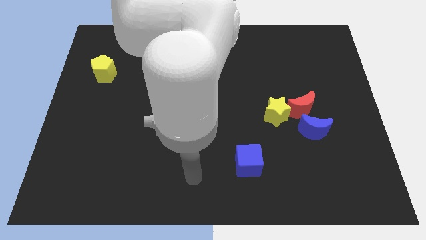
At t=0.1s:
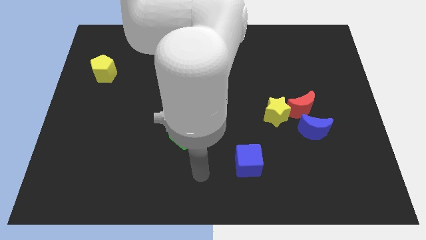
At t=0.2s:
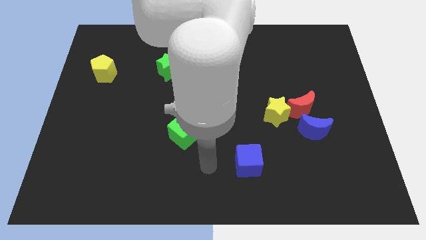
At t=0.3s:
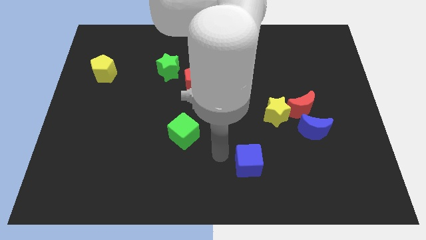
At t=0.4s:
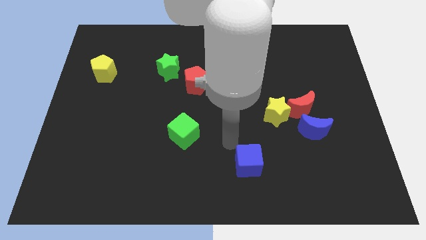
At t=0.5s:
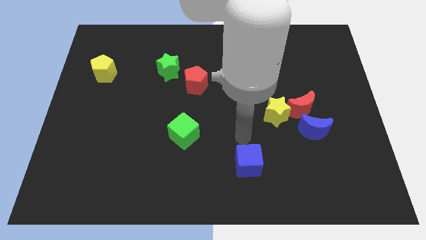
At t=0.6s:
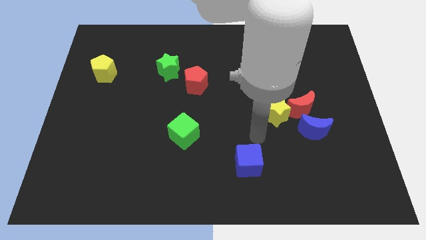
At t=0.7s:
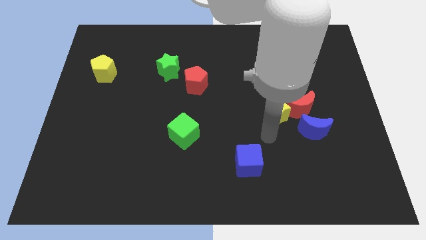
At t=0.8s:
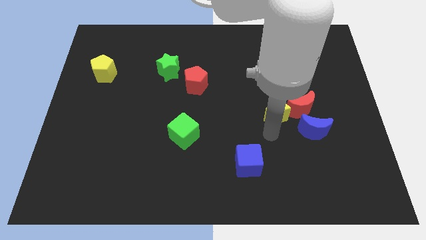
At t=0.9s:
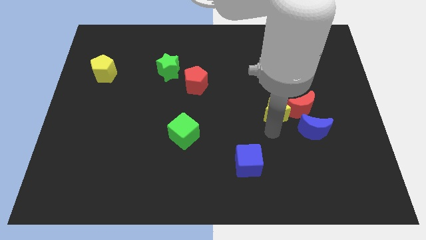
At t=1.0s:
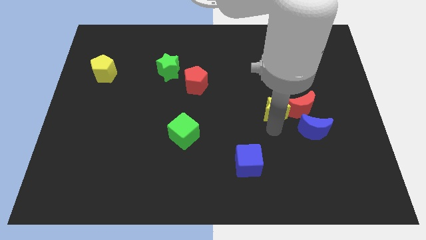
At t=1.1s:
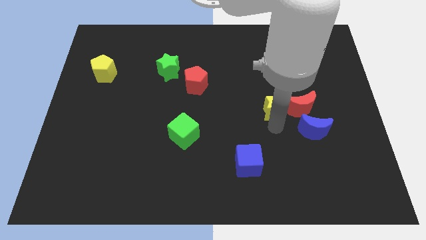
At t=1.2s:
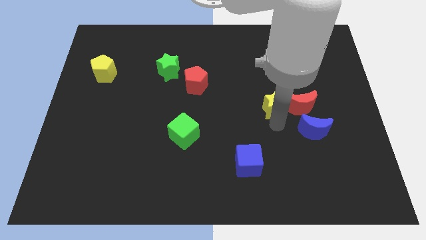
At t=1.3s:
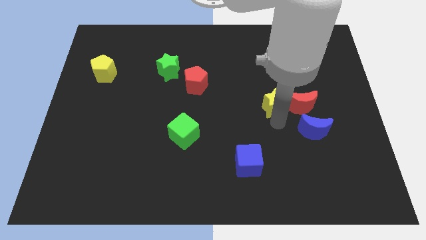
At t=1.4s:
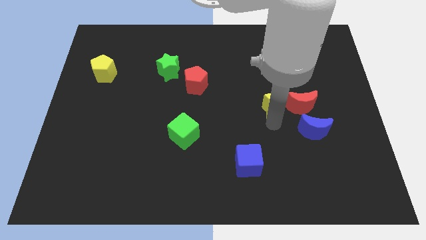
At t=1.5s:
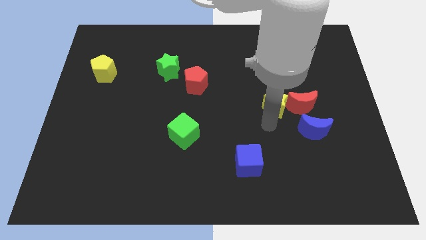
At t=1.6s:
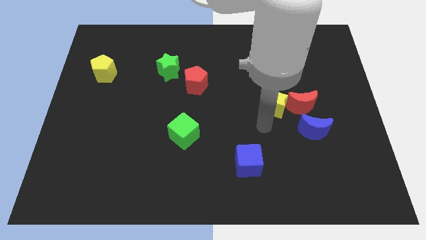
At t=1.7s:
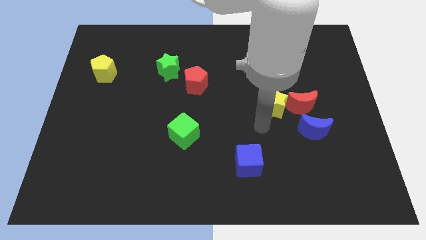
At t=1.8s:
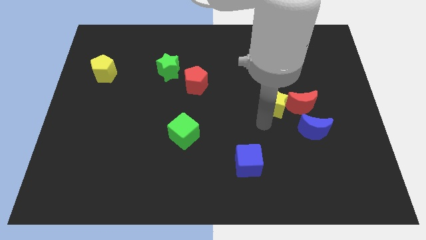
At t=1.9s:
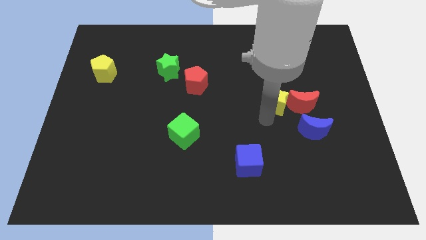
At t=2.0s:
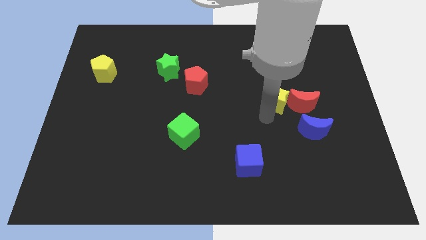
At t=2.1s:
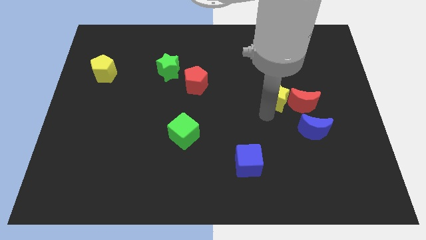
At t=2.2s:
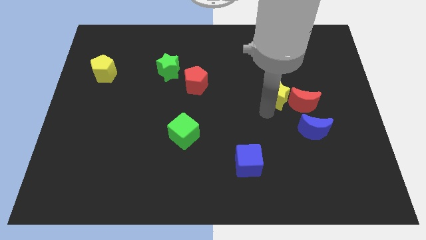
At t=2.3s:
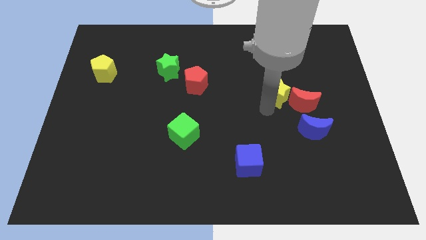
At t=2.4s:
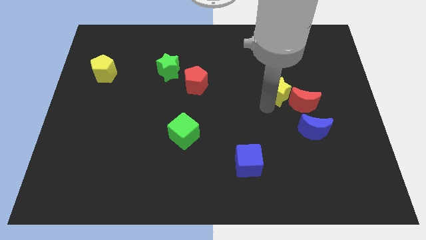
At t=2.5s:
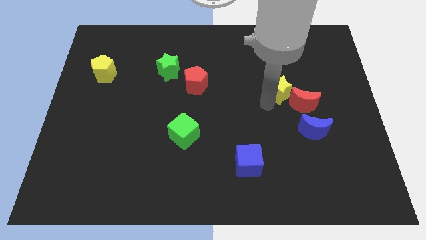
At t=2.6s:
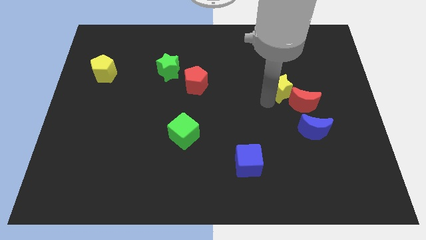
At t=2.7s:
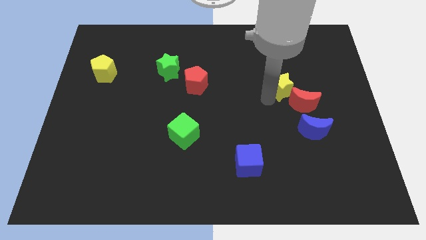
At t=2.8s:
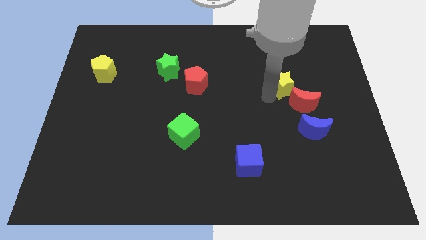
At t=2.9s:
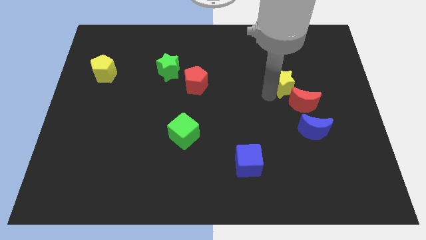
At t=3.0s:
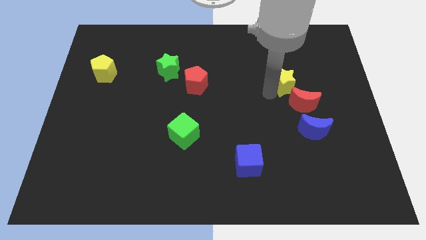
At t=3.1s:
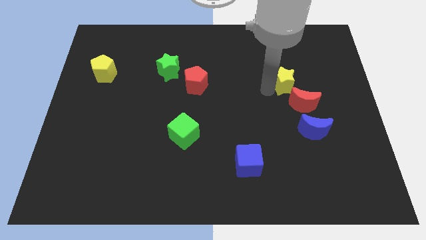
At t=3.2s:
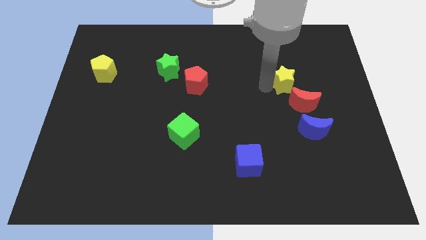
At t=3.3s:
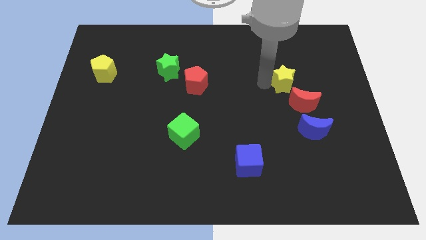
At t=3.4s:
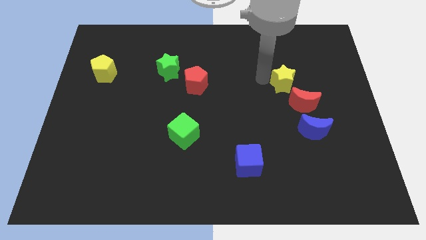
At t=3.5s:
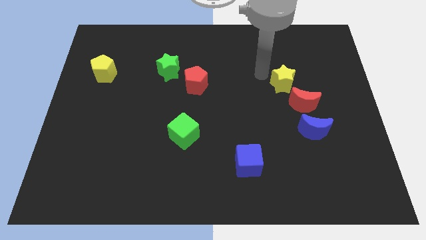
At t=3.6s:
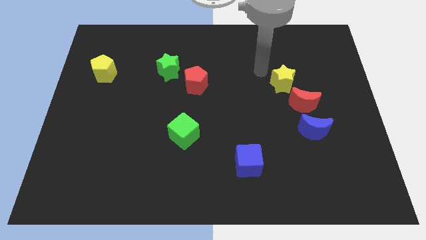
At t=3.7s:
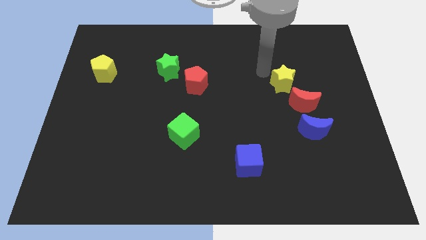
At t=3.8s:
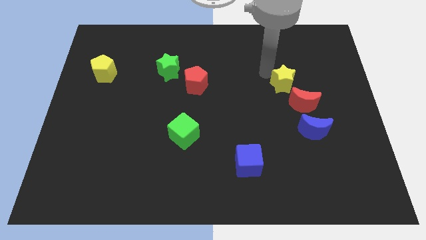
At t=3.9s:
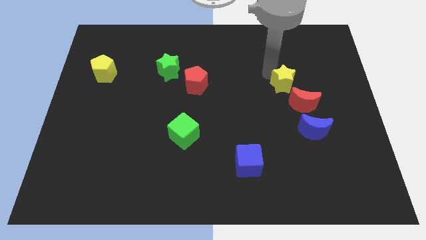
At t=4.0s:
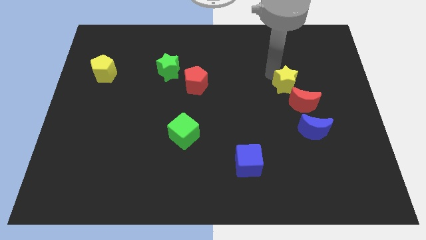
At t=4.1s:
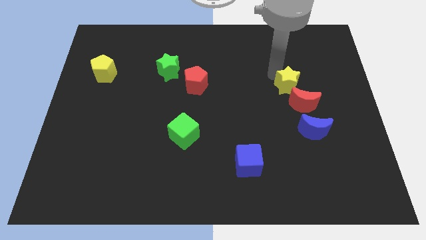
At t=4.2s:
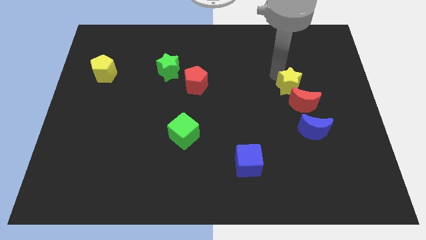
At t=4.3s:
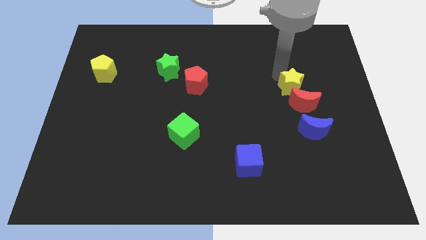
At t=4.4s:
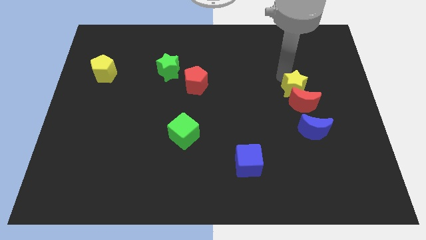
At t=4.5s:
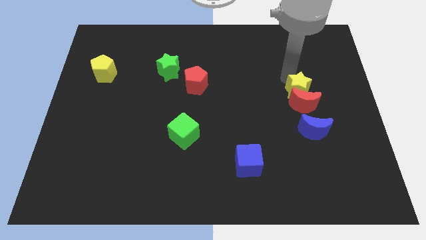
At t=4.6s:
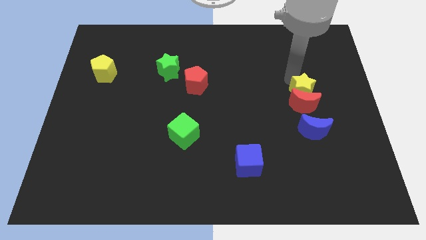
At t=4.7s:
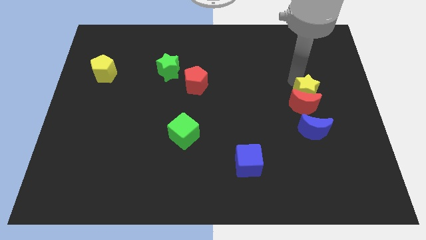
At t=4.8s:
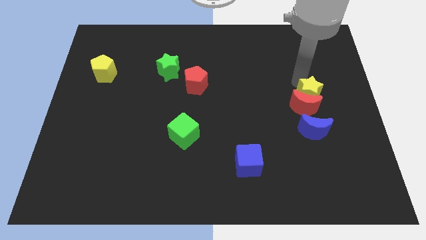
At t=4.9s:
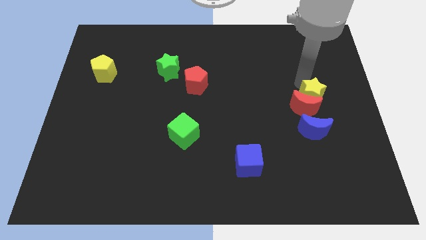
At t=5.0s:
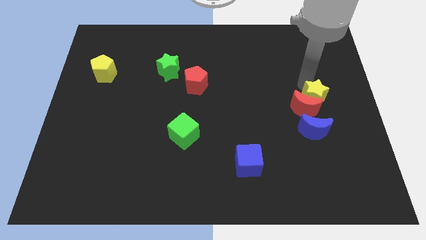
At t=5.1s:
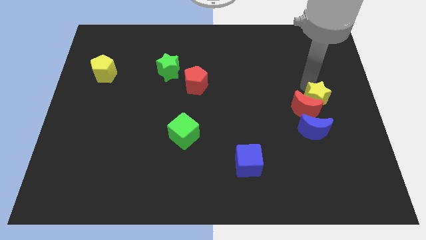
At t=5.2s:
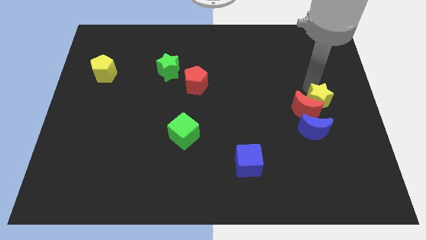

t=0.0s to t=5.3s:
move the yellow star to the top right side of the blue moon

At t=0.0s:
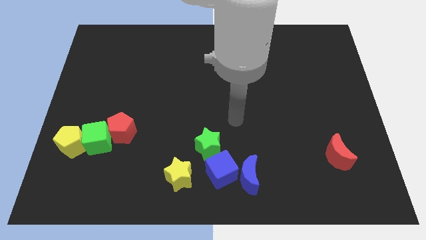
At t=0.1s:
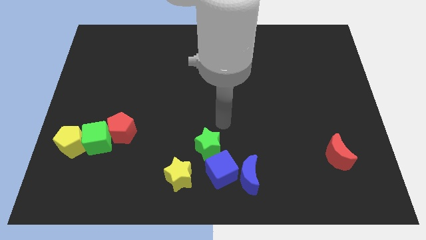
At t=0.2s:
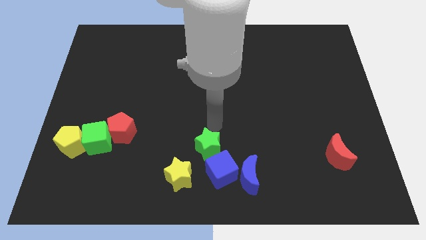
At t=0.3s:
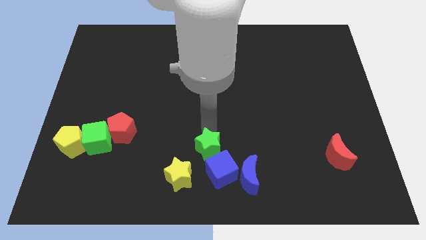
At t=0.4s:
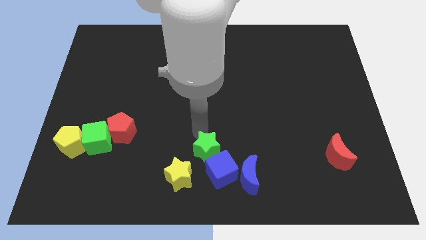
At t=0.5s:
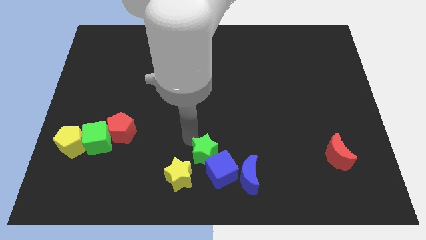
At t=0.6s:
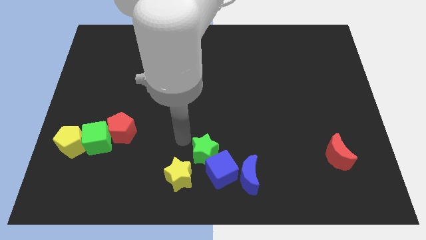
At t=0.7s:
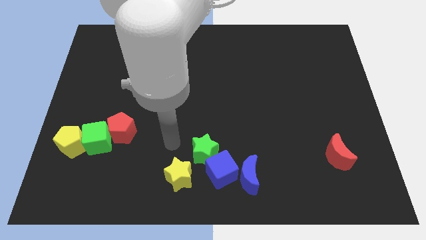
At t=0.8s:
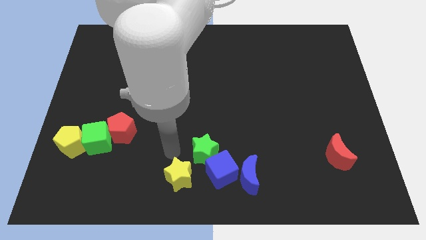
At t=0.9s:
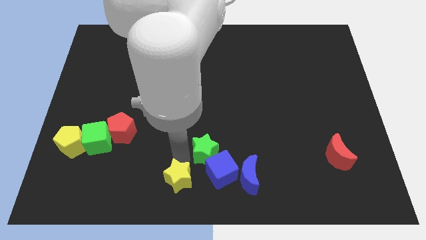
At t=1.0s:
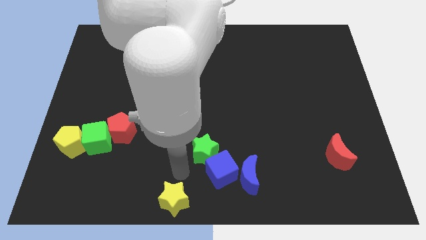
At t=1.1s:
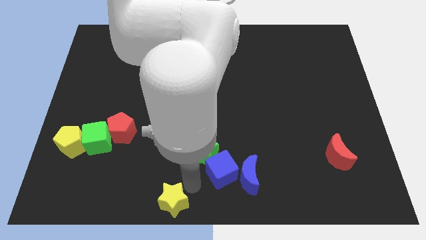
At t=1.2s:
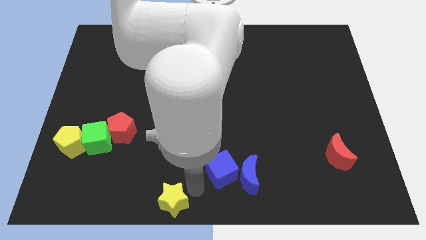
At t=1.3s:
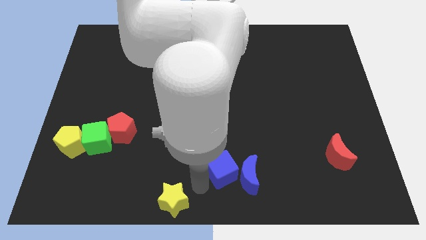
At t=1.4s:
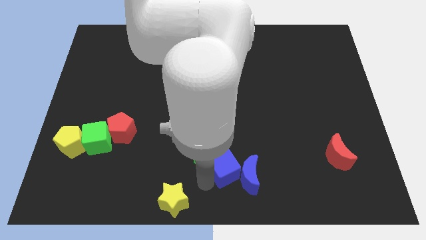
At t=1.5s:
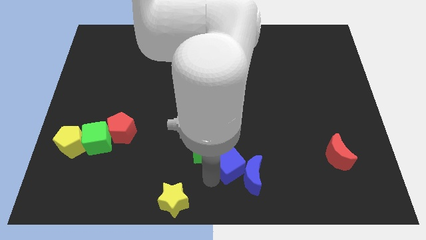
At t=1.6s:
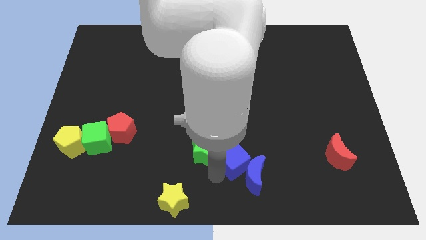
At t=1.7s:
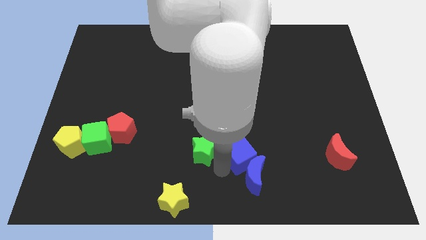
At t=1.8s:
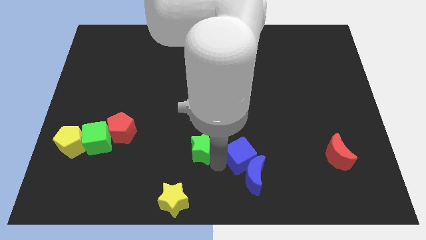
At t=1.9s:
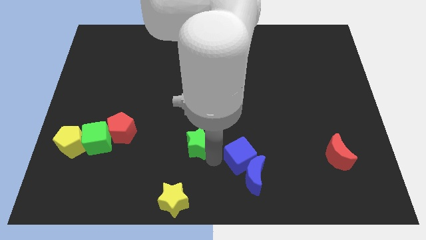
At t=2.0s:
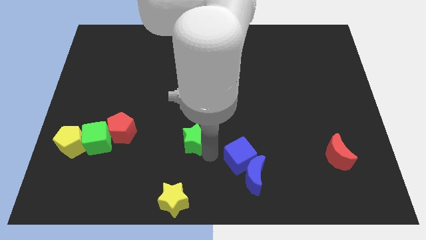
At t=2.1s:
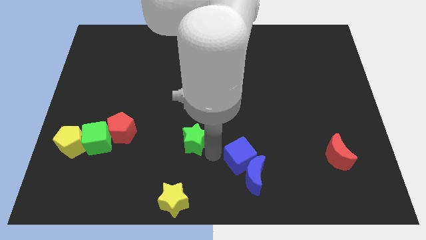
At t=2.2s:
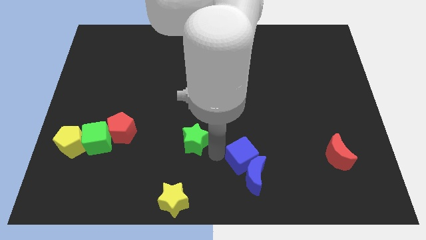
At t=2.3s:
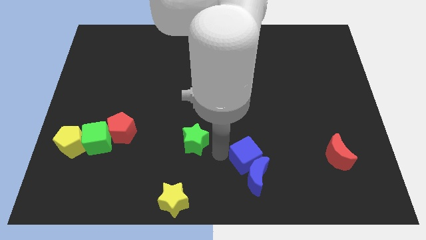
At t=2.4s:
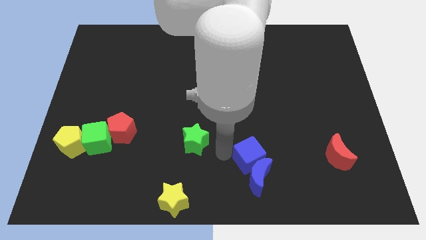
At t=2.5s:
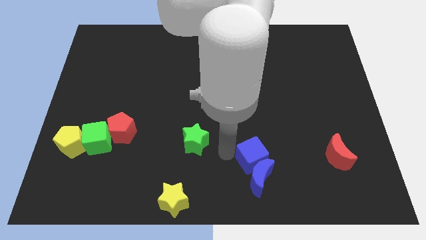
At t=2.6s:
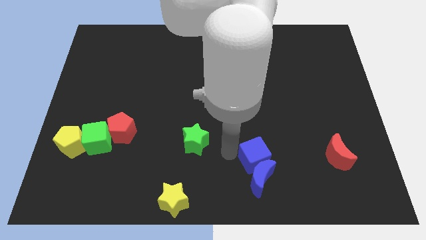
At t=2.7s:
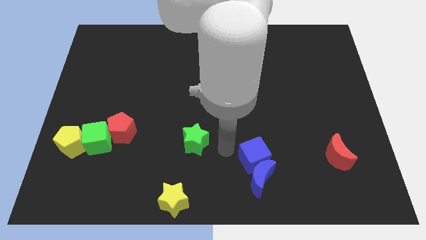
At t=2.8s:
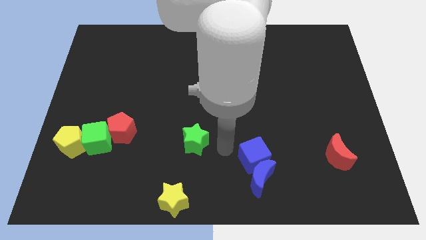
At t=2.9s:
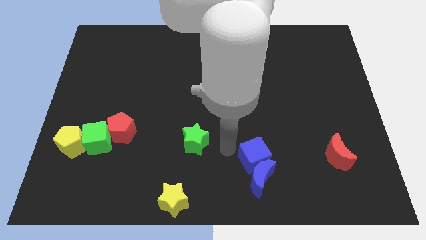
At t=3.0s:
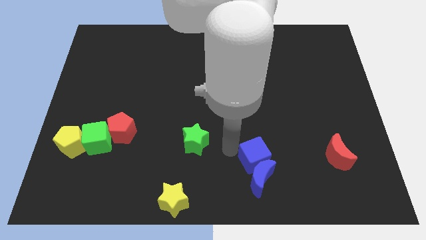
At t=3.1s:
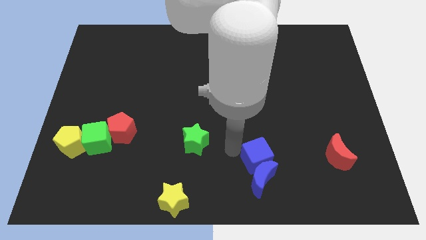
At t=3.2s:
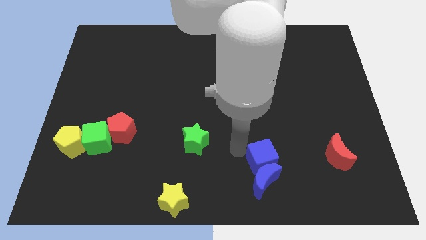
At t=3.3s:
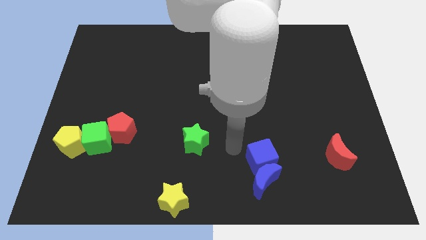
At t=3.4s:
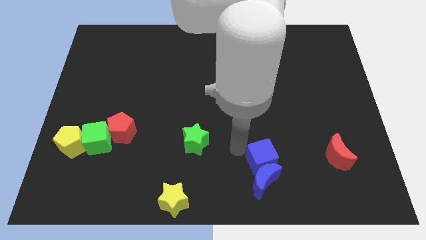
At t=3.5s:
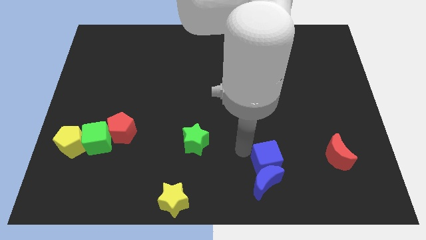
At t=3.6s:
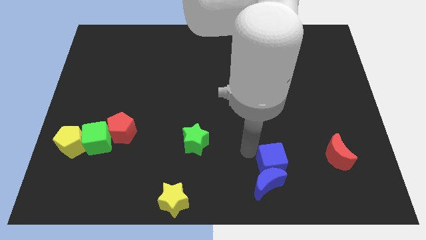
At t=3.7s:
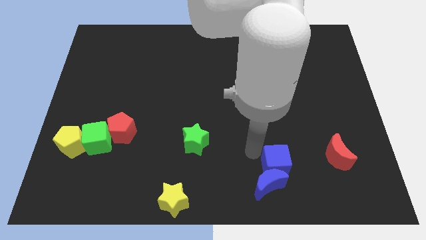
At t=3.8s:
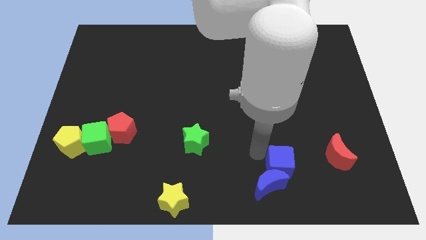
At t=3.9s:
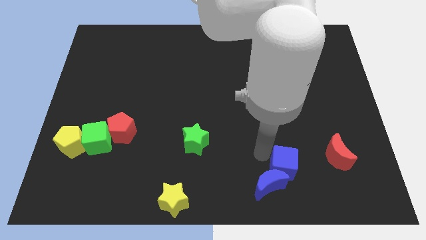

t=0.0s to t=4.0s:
move the blue cube just right of the blue moon
